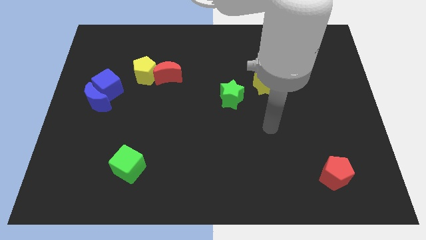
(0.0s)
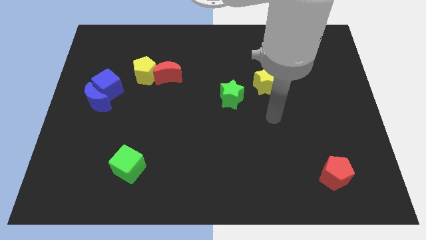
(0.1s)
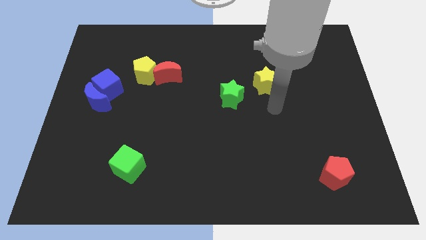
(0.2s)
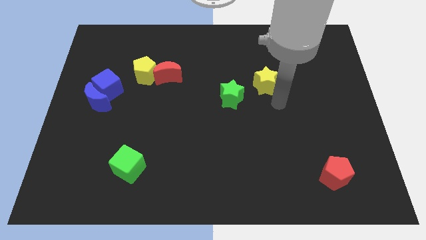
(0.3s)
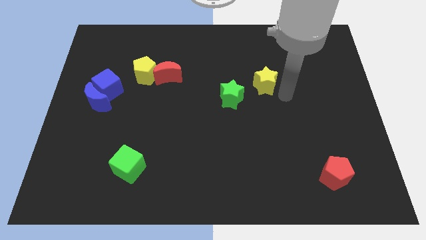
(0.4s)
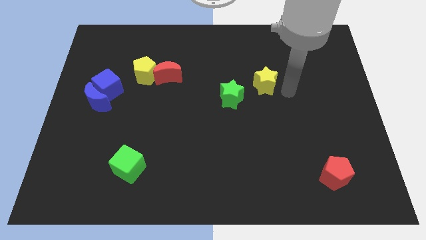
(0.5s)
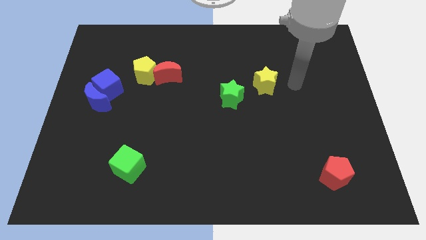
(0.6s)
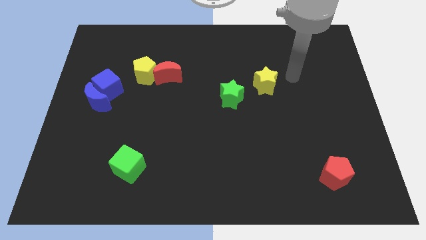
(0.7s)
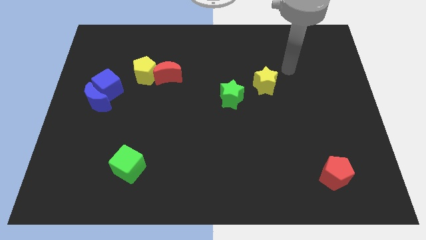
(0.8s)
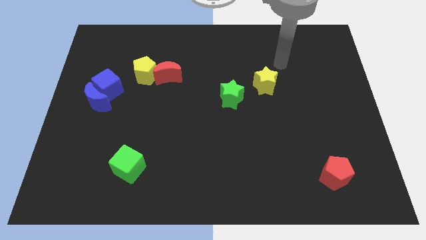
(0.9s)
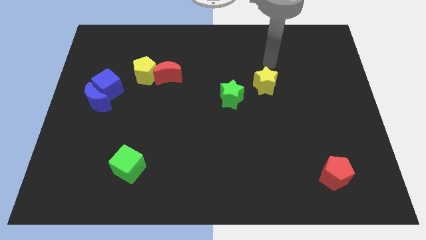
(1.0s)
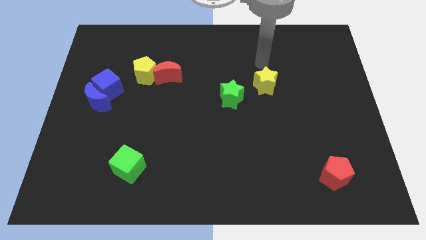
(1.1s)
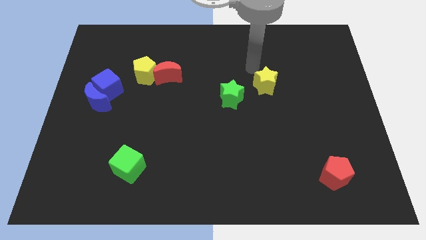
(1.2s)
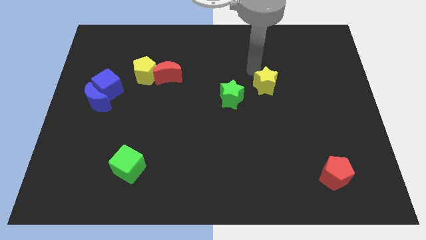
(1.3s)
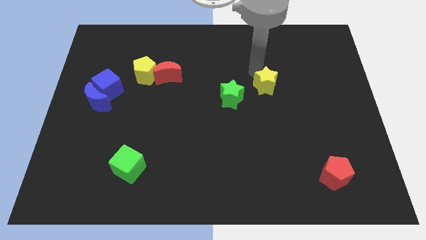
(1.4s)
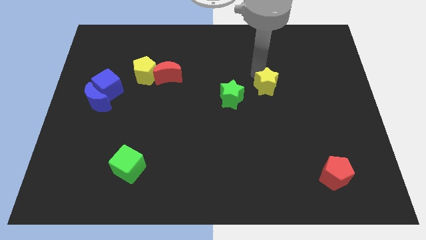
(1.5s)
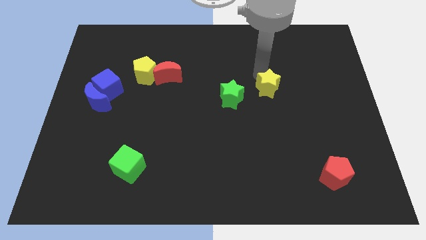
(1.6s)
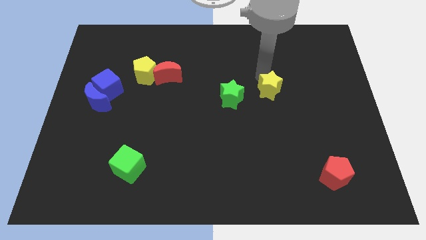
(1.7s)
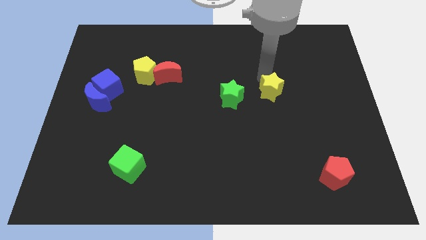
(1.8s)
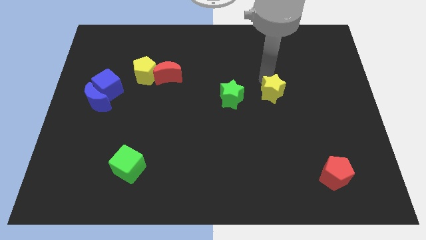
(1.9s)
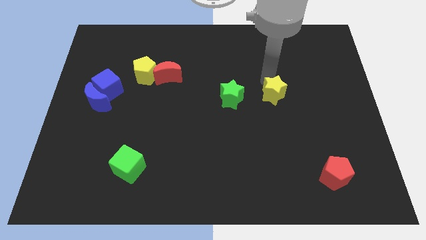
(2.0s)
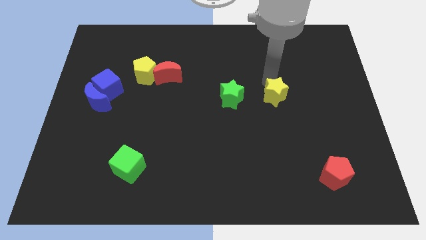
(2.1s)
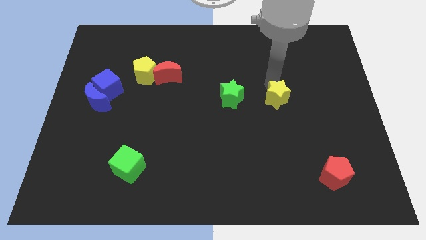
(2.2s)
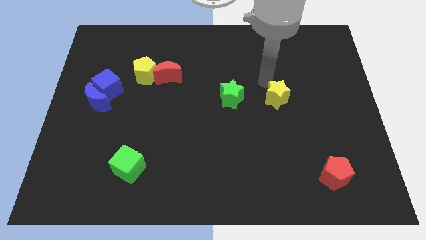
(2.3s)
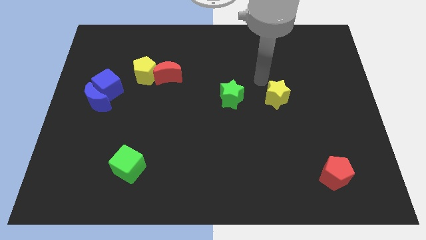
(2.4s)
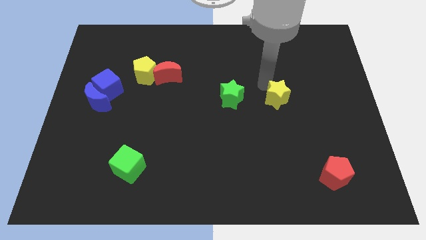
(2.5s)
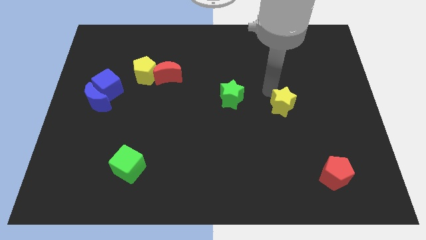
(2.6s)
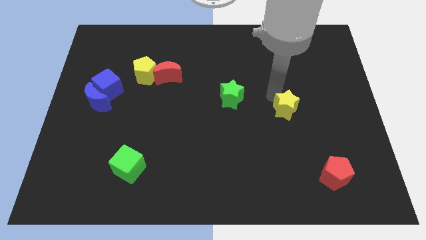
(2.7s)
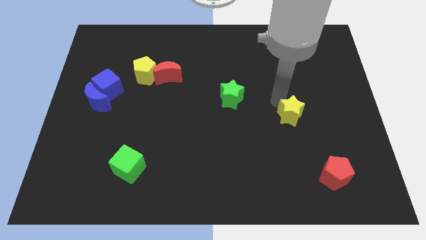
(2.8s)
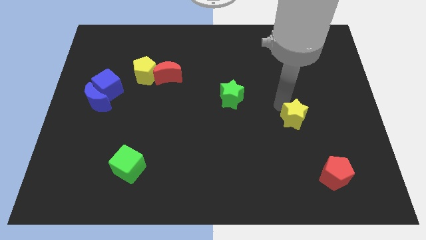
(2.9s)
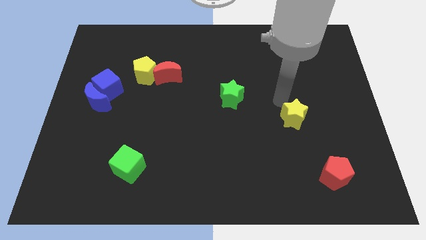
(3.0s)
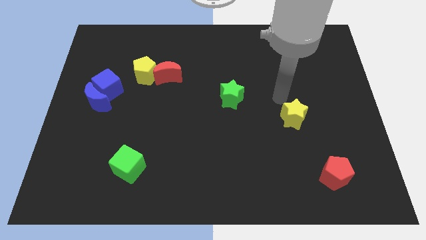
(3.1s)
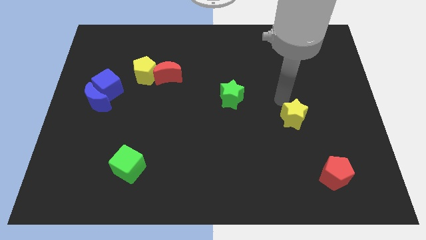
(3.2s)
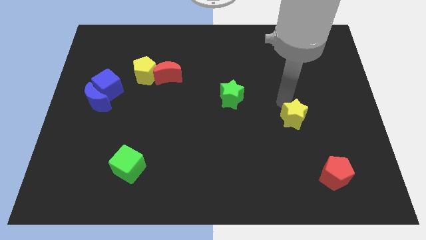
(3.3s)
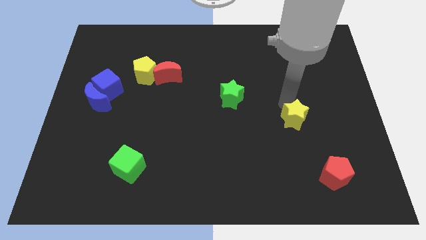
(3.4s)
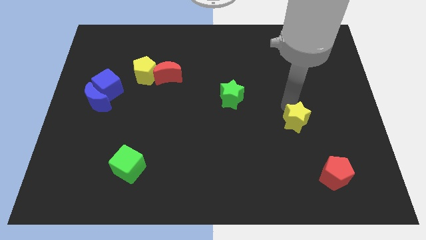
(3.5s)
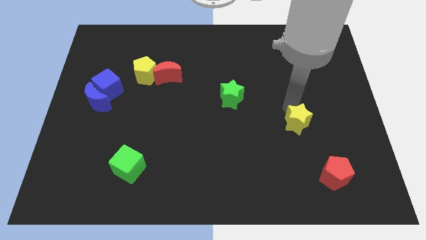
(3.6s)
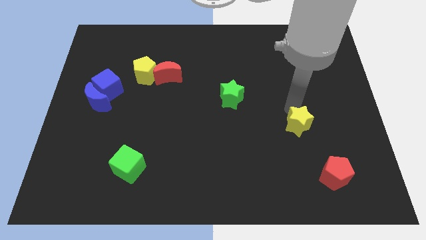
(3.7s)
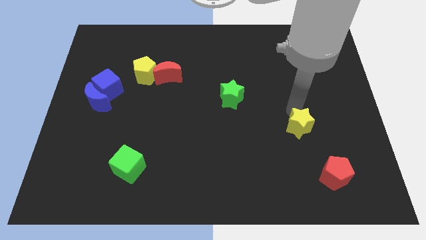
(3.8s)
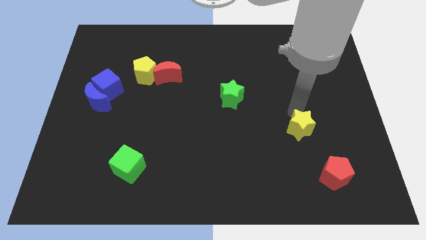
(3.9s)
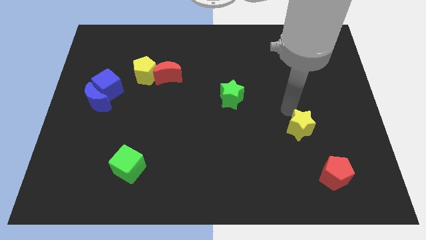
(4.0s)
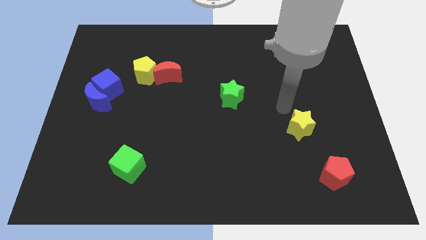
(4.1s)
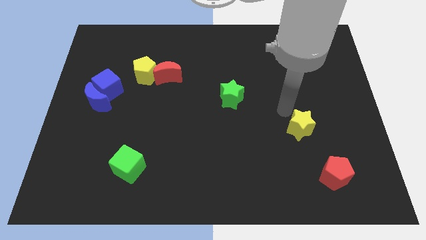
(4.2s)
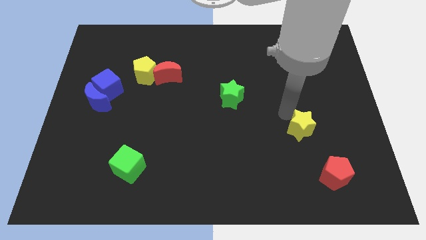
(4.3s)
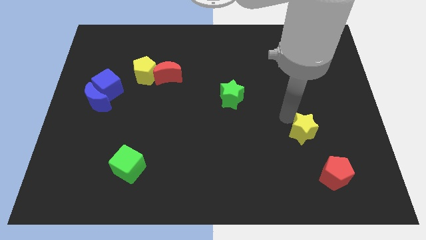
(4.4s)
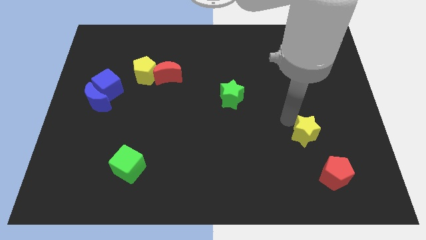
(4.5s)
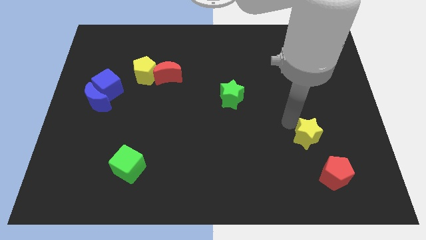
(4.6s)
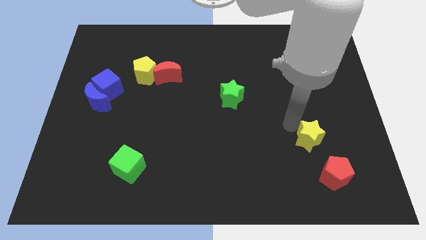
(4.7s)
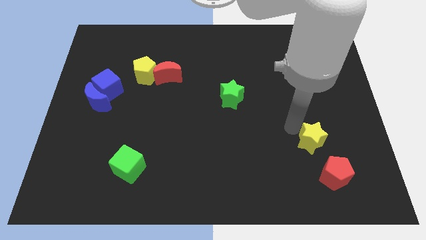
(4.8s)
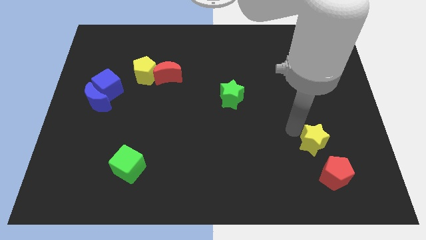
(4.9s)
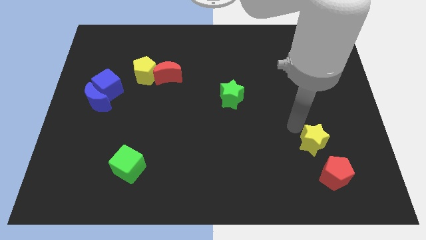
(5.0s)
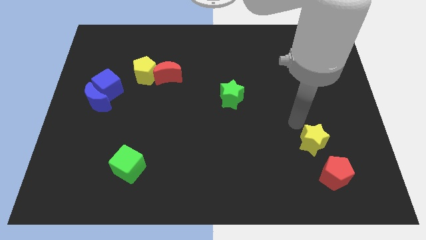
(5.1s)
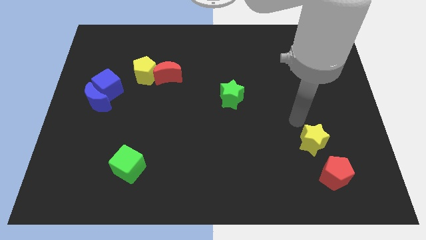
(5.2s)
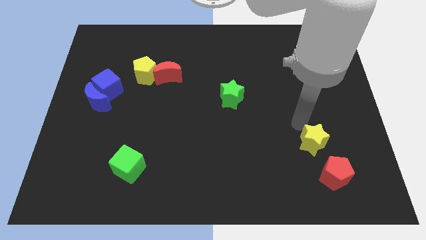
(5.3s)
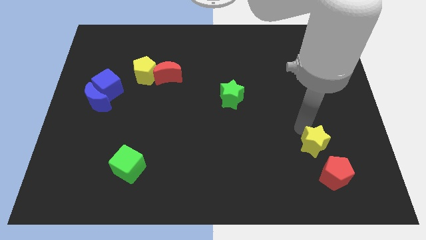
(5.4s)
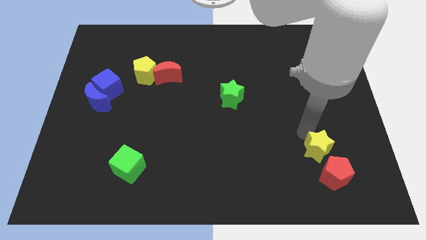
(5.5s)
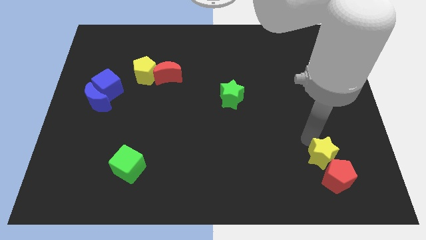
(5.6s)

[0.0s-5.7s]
move the yellow star to the red pentagon

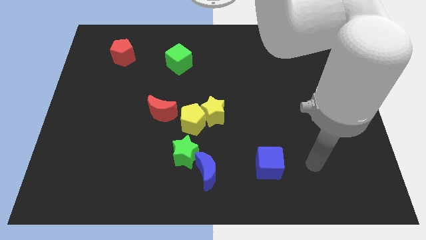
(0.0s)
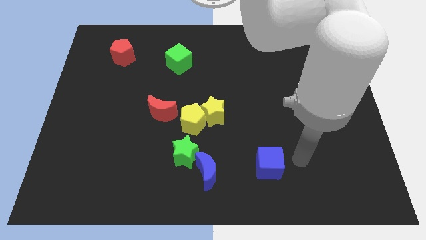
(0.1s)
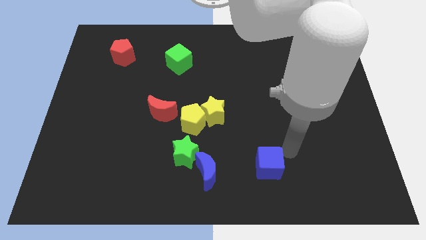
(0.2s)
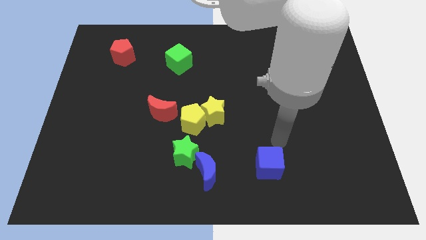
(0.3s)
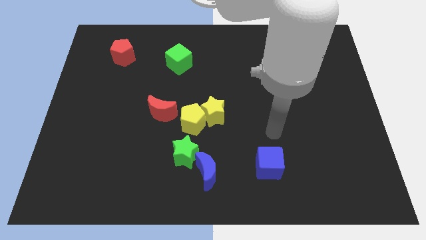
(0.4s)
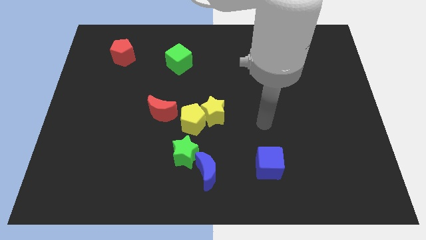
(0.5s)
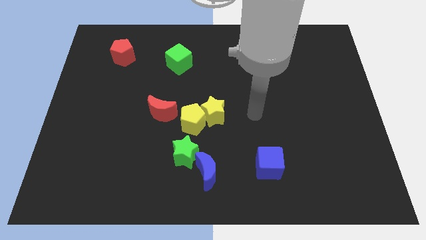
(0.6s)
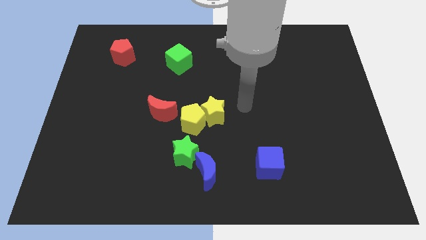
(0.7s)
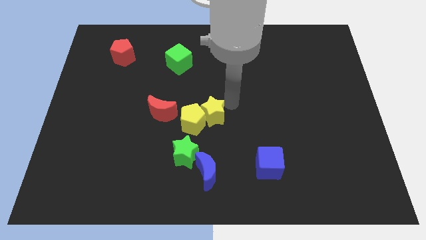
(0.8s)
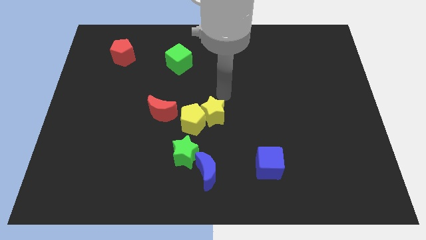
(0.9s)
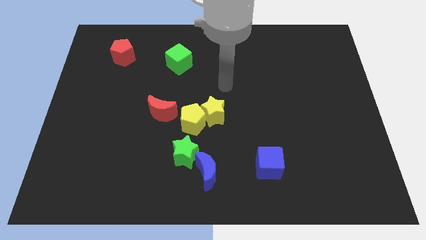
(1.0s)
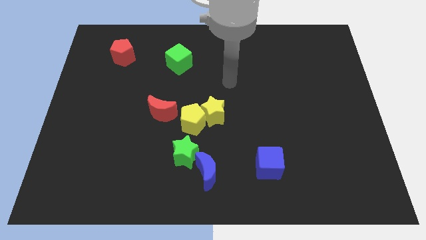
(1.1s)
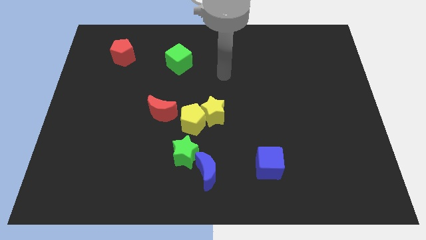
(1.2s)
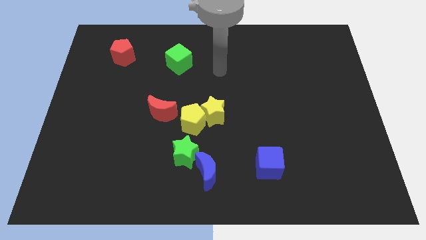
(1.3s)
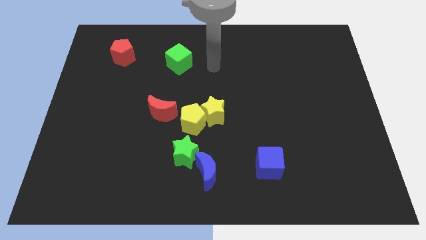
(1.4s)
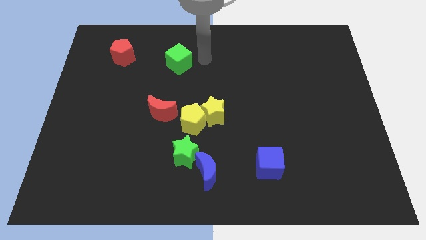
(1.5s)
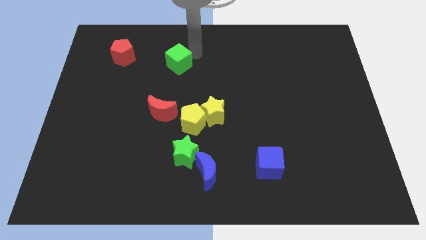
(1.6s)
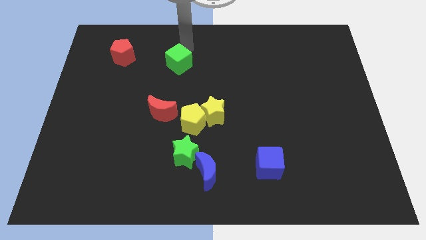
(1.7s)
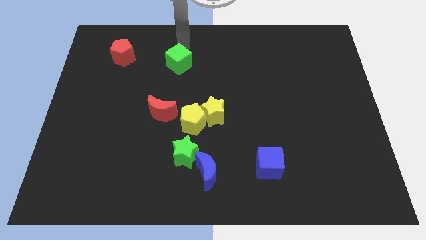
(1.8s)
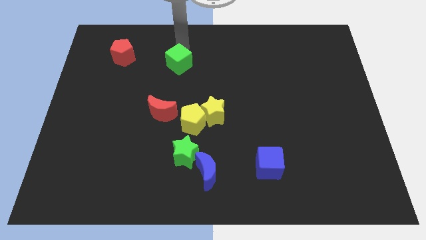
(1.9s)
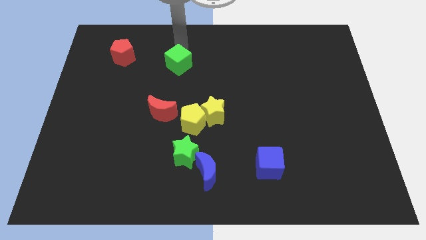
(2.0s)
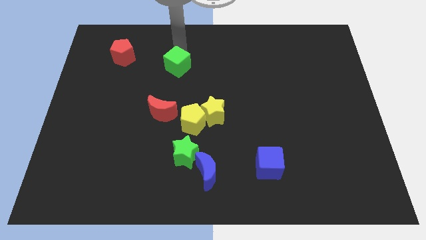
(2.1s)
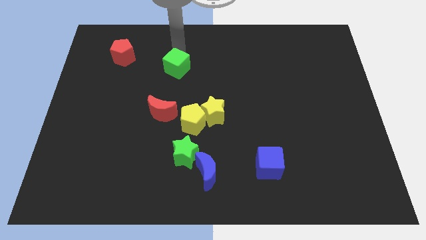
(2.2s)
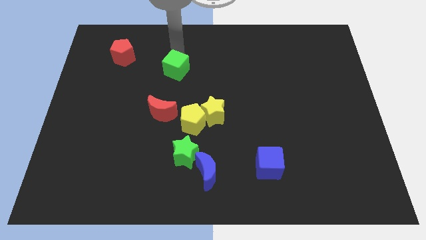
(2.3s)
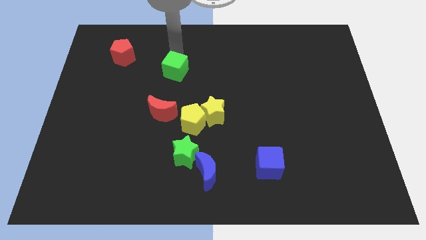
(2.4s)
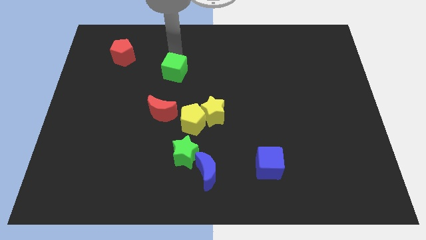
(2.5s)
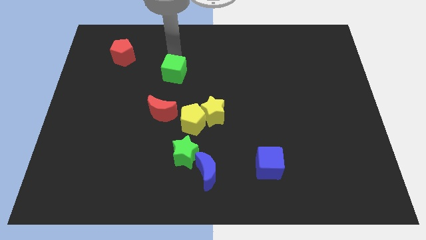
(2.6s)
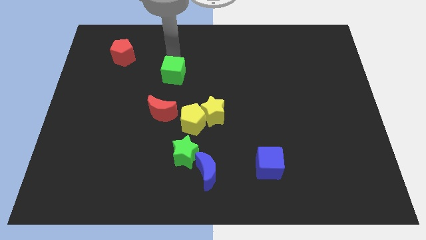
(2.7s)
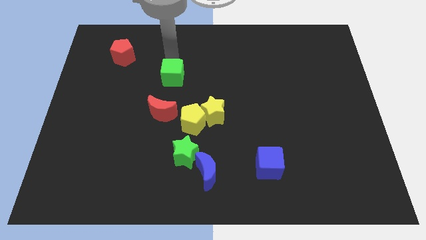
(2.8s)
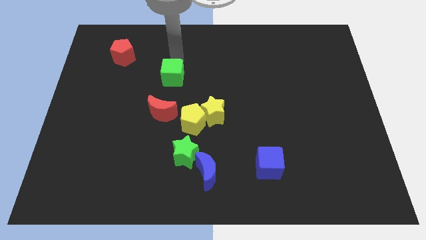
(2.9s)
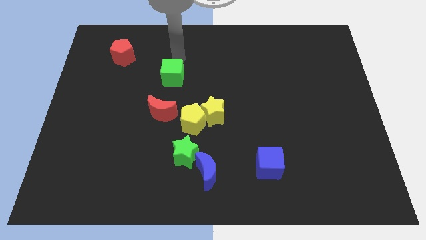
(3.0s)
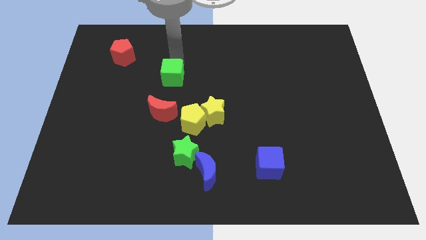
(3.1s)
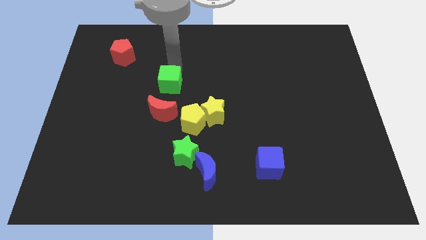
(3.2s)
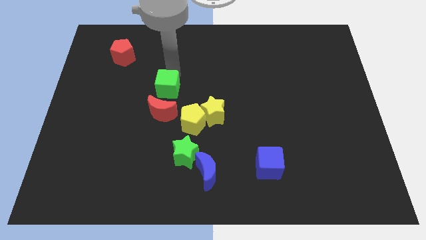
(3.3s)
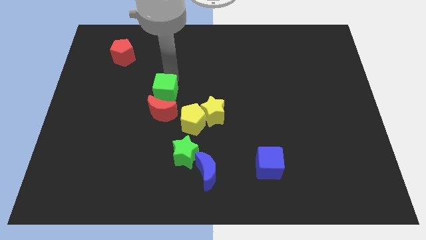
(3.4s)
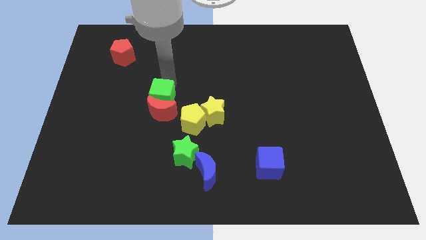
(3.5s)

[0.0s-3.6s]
put the green cube to the red moon
